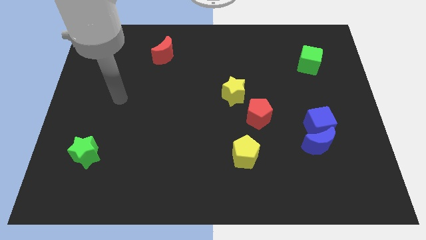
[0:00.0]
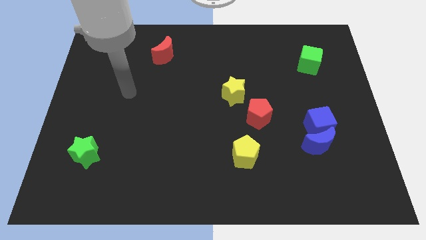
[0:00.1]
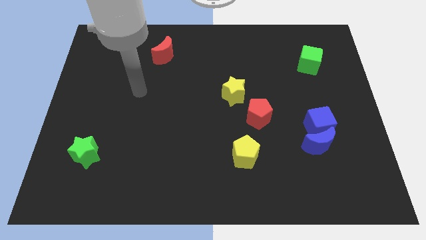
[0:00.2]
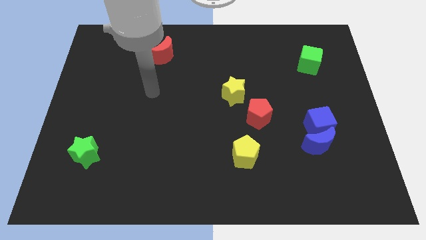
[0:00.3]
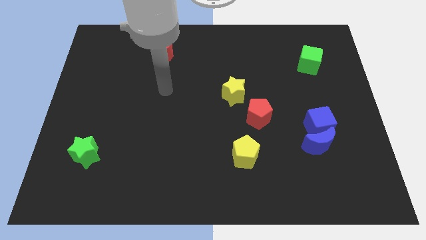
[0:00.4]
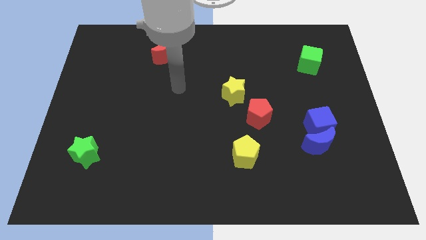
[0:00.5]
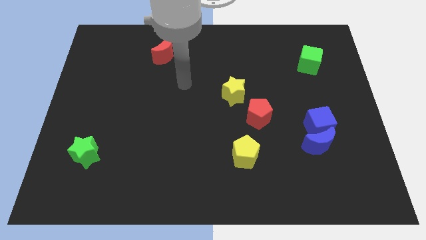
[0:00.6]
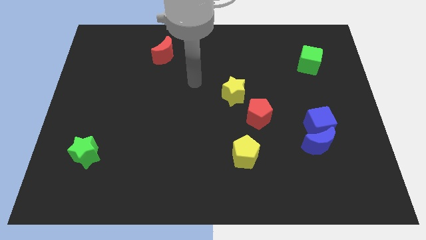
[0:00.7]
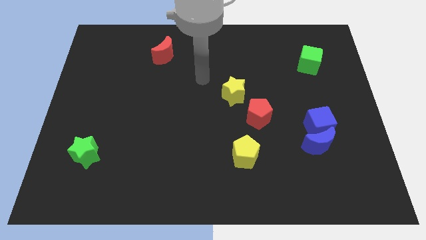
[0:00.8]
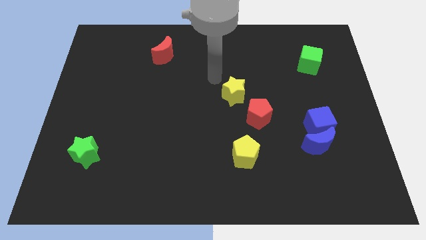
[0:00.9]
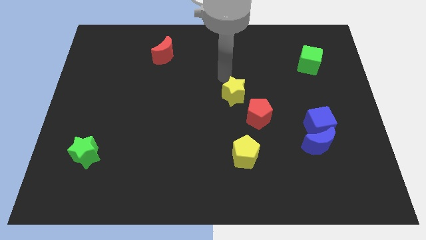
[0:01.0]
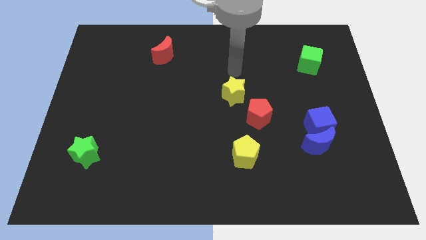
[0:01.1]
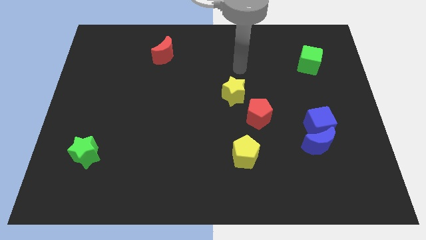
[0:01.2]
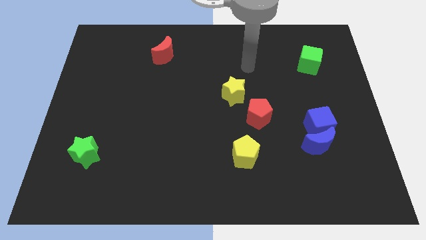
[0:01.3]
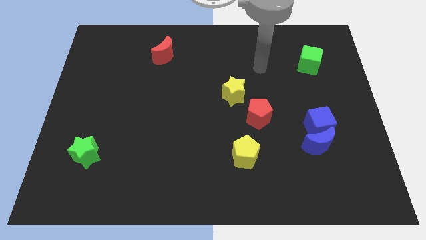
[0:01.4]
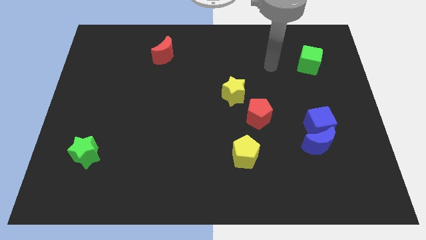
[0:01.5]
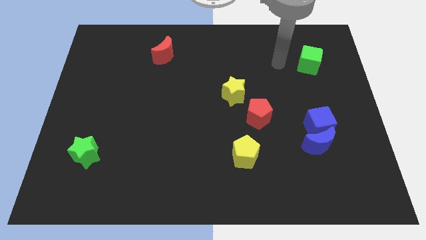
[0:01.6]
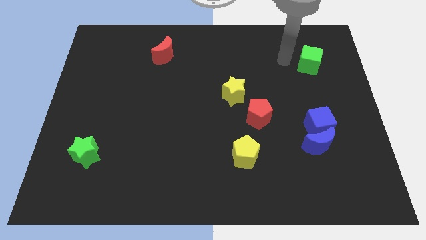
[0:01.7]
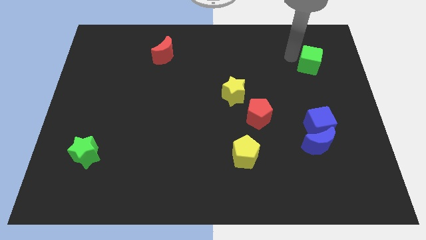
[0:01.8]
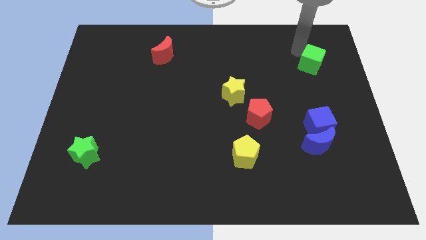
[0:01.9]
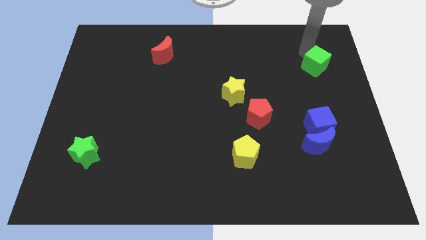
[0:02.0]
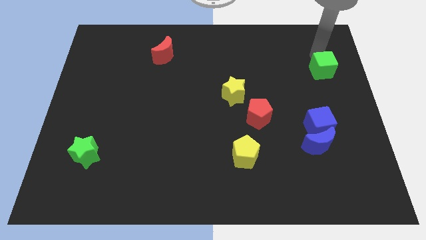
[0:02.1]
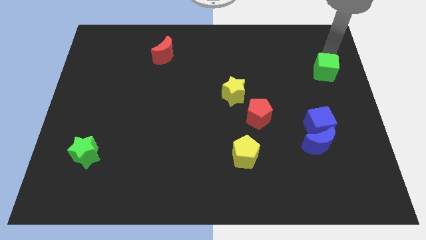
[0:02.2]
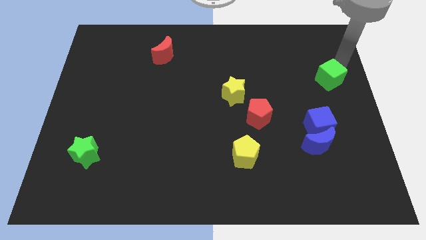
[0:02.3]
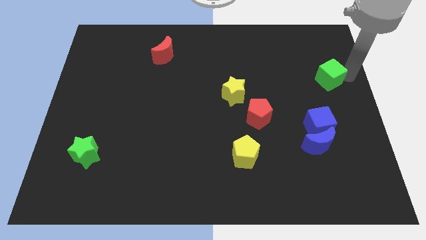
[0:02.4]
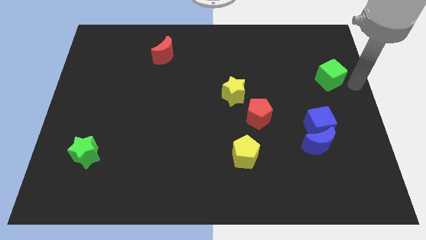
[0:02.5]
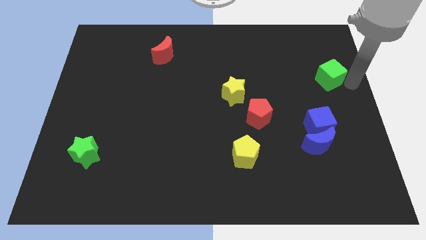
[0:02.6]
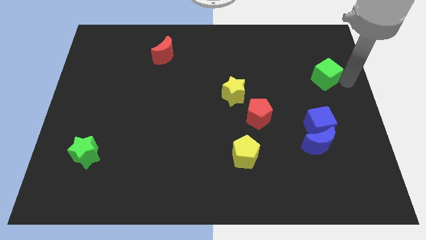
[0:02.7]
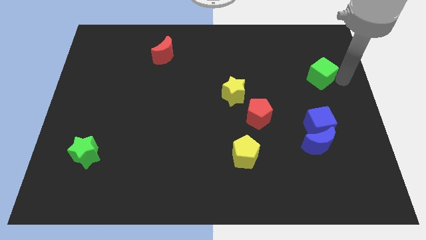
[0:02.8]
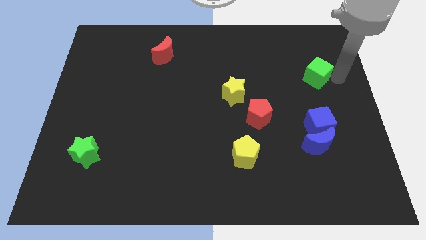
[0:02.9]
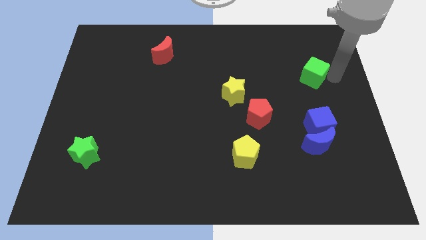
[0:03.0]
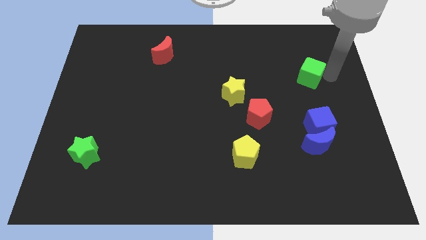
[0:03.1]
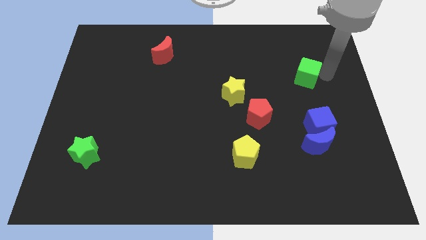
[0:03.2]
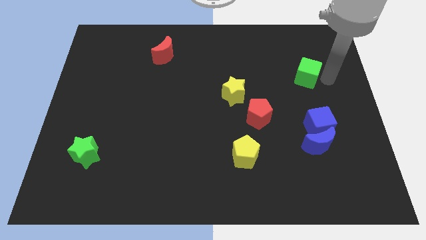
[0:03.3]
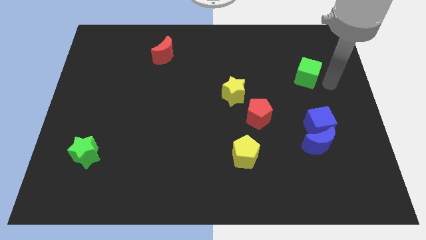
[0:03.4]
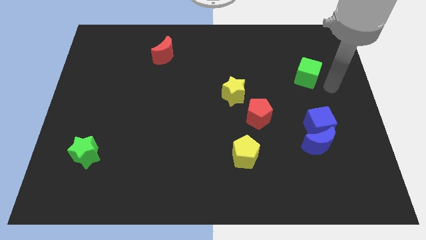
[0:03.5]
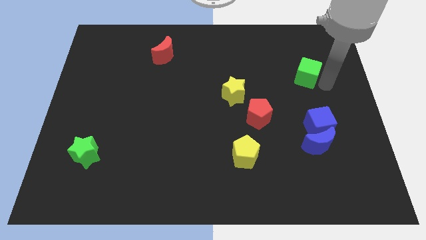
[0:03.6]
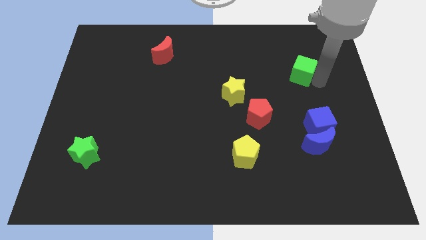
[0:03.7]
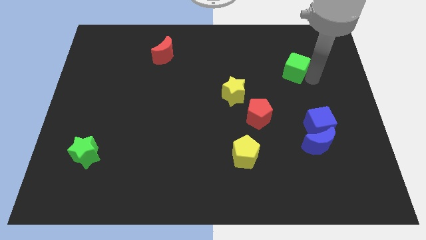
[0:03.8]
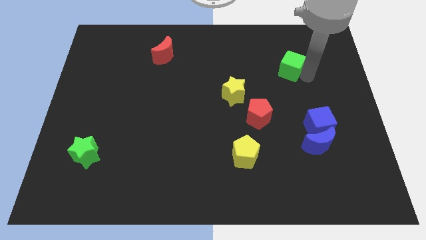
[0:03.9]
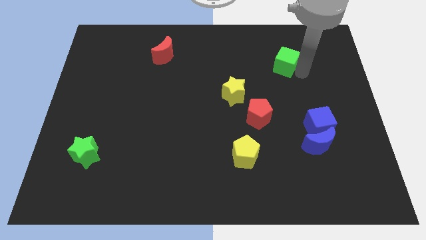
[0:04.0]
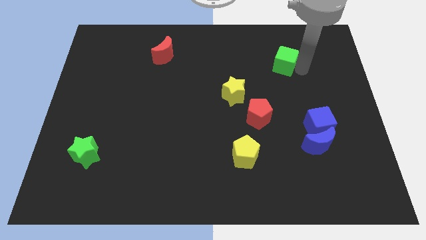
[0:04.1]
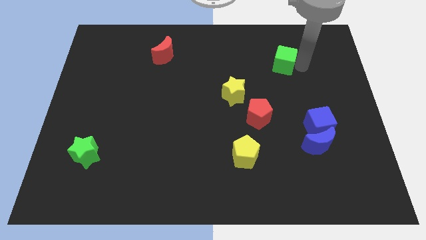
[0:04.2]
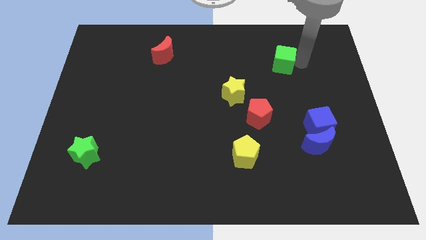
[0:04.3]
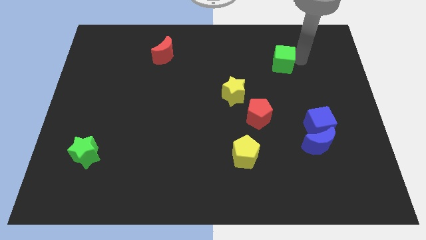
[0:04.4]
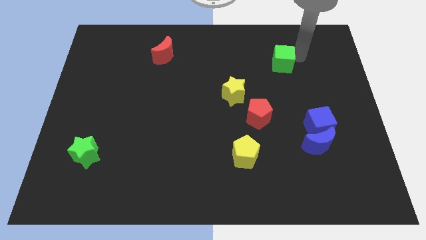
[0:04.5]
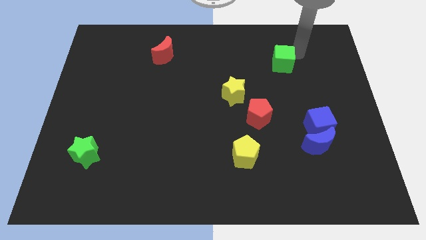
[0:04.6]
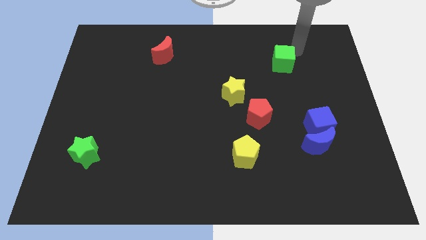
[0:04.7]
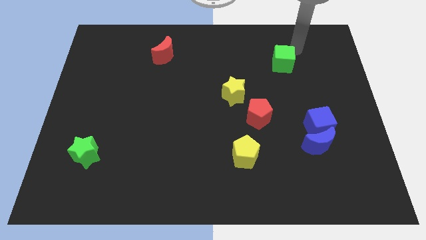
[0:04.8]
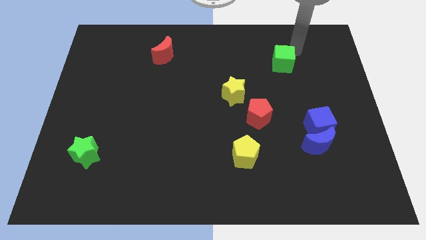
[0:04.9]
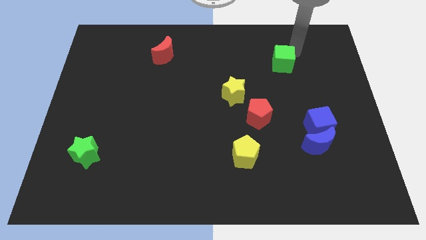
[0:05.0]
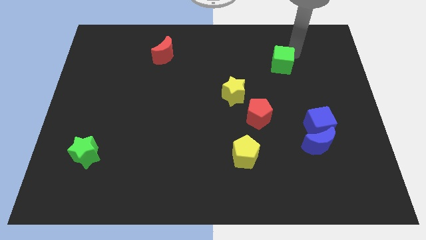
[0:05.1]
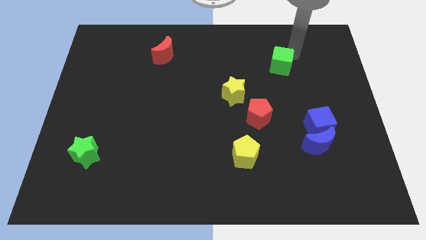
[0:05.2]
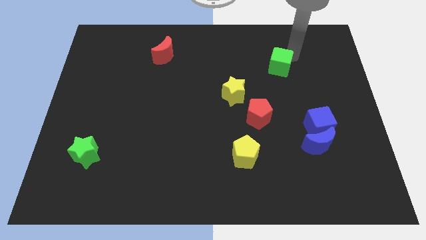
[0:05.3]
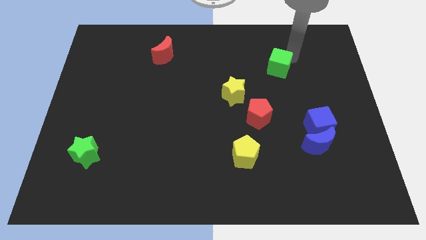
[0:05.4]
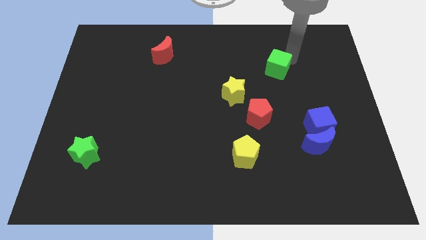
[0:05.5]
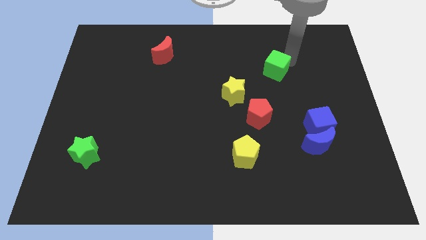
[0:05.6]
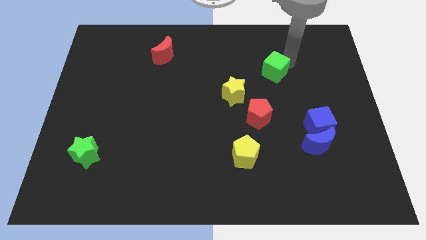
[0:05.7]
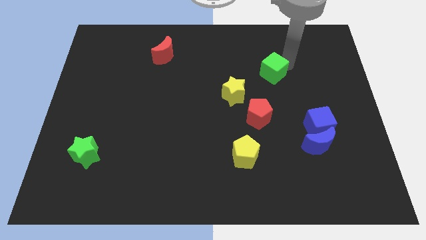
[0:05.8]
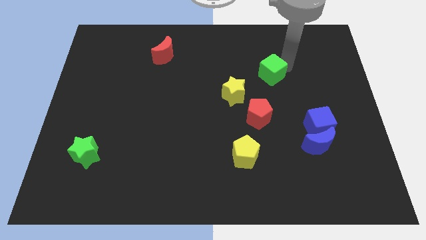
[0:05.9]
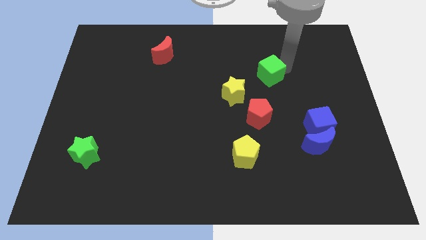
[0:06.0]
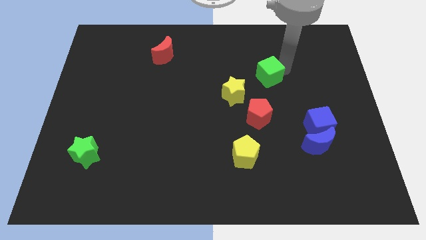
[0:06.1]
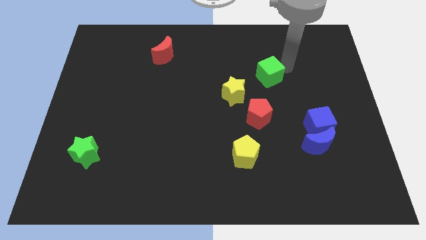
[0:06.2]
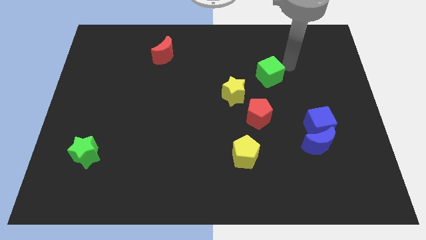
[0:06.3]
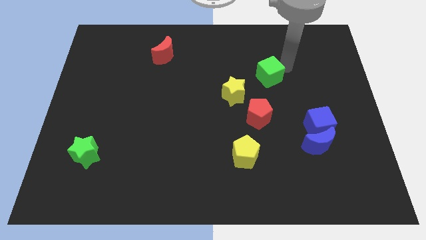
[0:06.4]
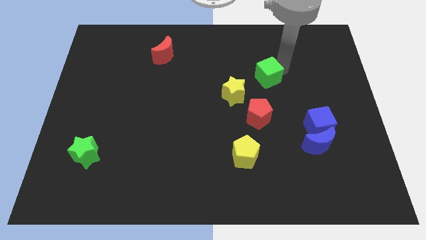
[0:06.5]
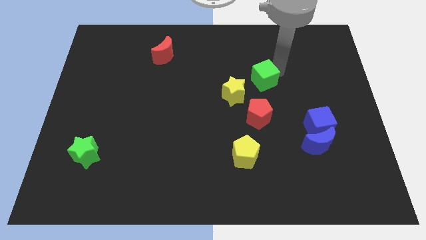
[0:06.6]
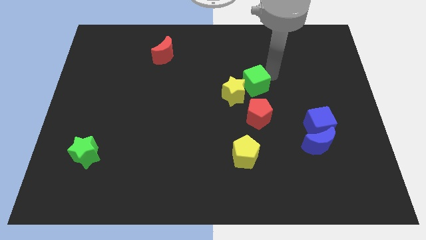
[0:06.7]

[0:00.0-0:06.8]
move the green cube to the yellow star

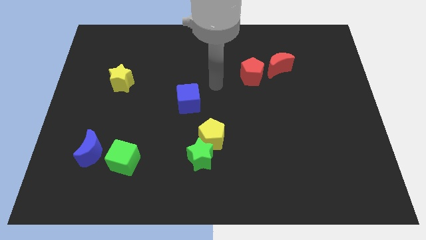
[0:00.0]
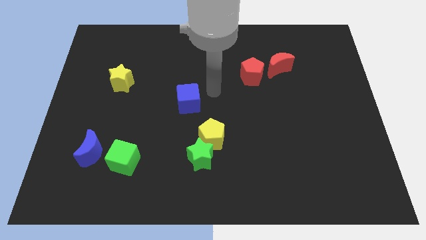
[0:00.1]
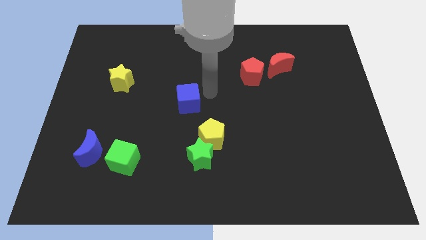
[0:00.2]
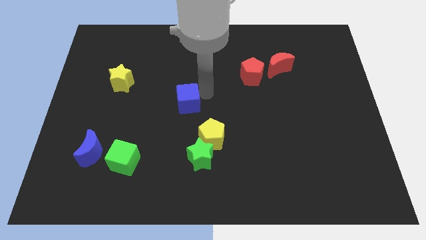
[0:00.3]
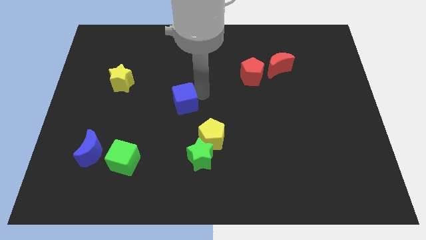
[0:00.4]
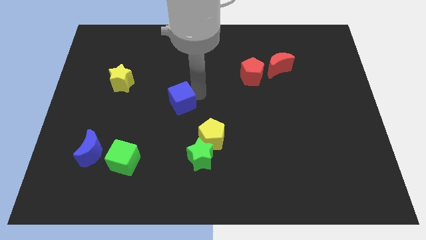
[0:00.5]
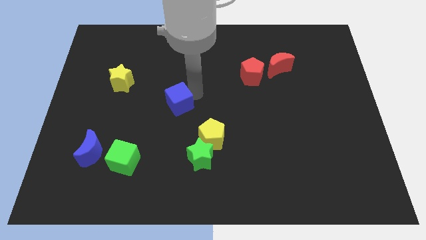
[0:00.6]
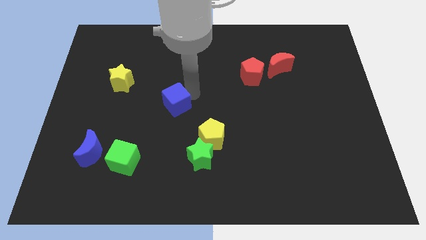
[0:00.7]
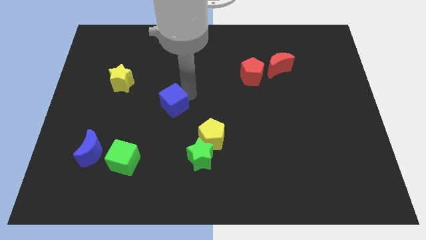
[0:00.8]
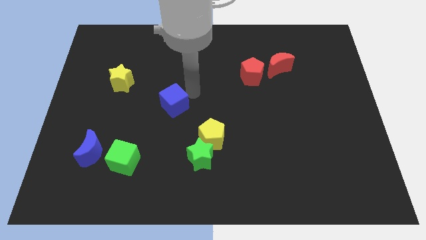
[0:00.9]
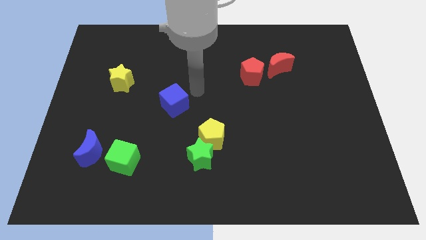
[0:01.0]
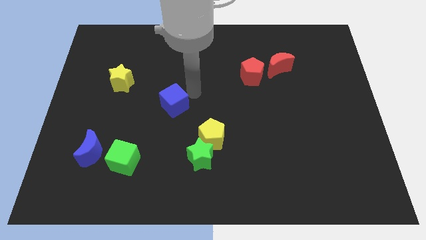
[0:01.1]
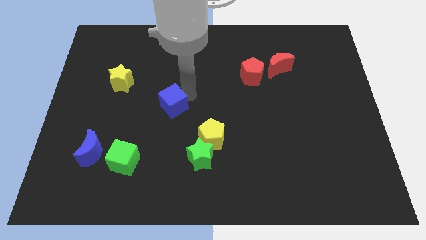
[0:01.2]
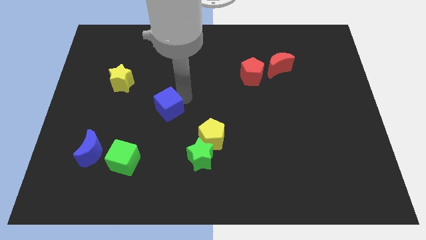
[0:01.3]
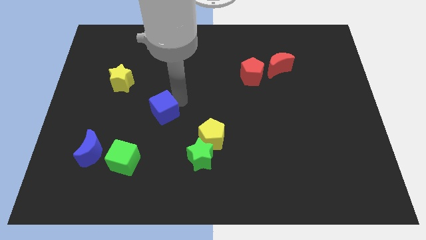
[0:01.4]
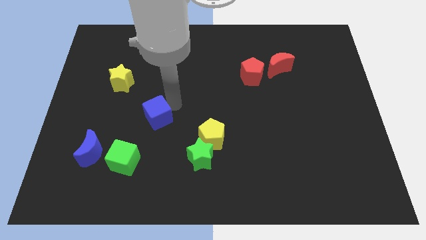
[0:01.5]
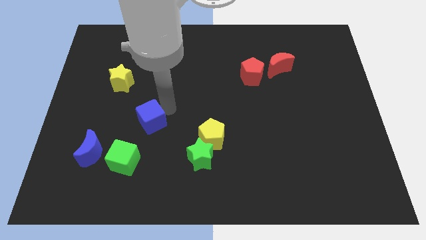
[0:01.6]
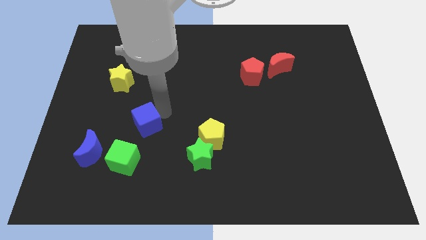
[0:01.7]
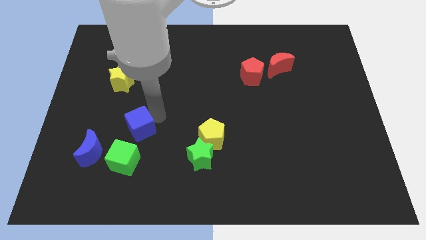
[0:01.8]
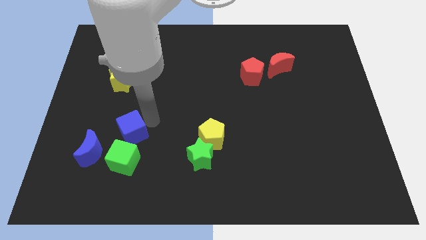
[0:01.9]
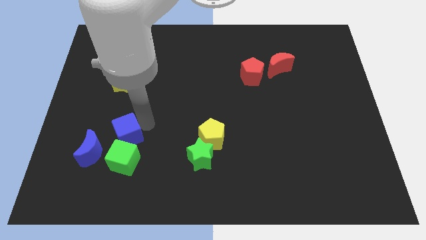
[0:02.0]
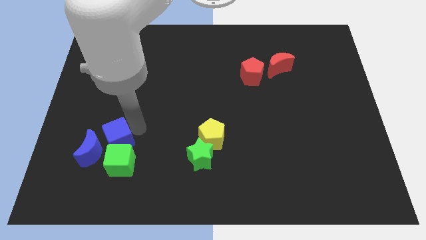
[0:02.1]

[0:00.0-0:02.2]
move the blue cube towards the blue moon
